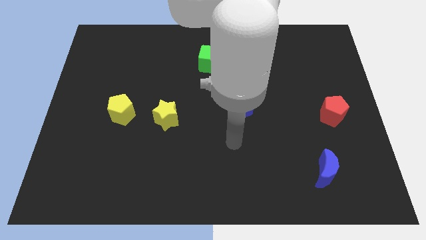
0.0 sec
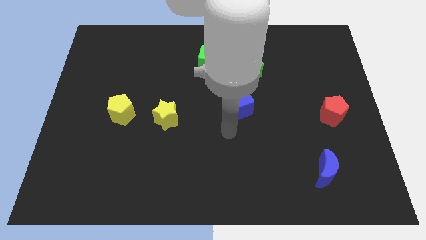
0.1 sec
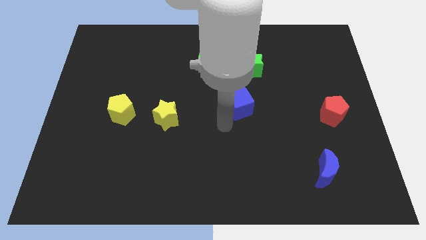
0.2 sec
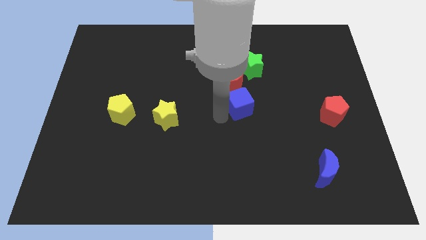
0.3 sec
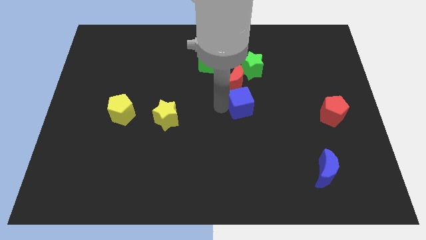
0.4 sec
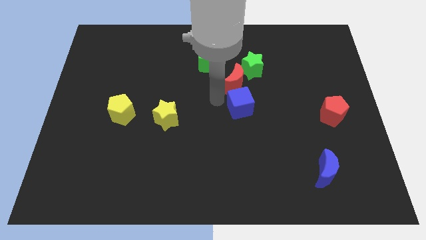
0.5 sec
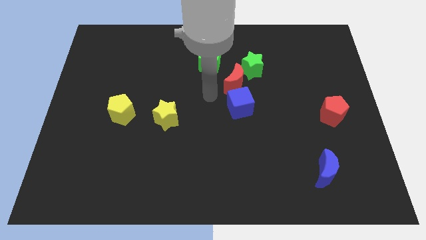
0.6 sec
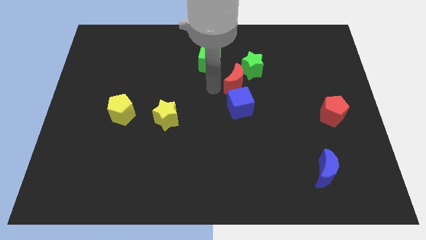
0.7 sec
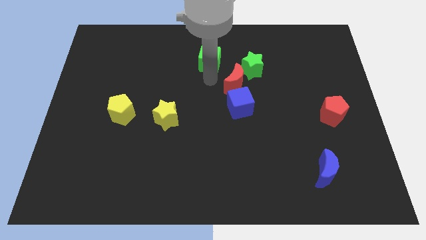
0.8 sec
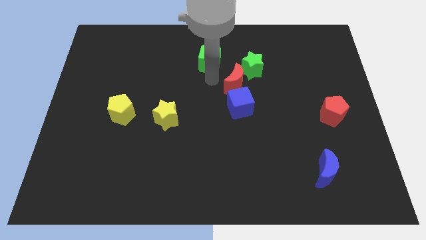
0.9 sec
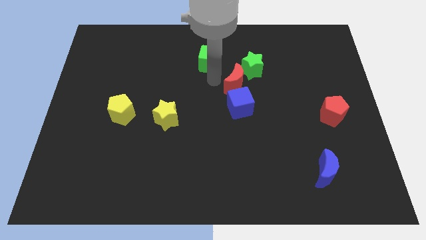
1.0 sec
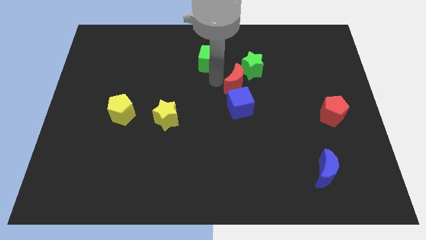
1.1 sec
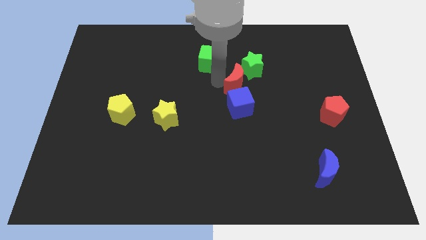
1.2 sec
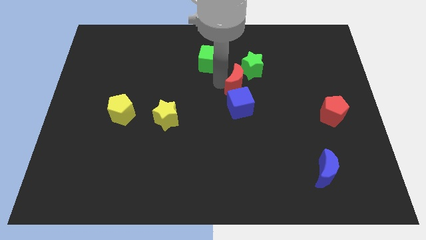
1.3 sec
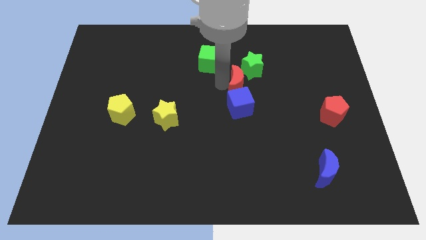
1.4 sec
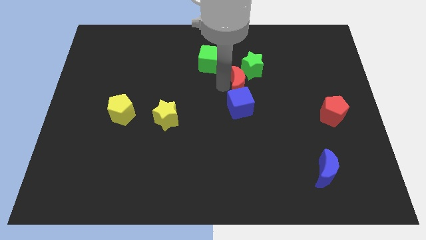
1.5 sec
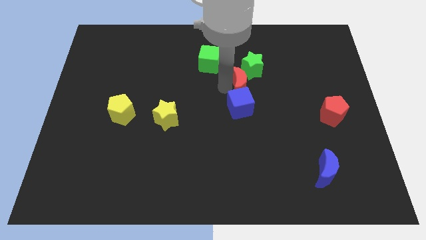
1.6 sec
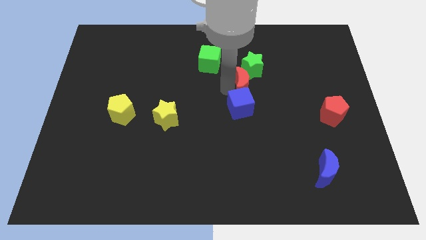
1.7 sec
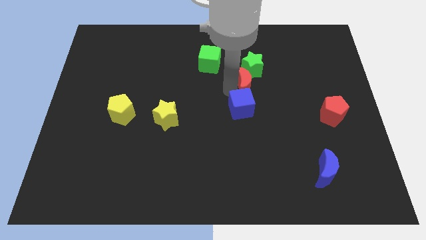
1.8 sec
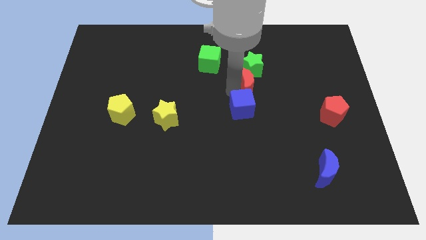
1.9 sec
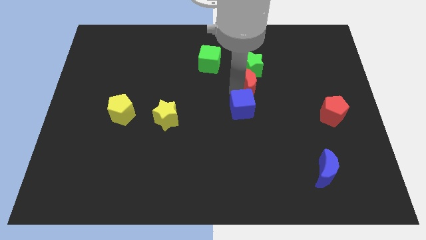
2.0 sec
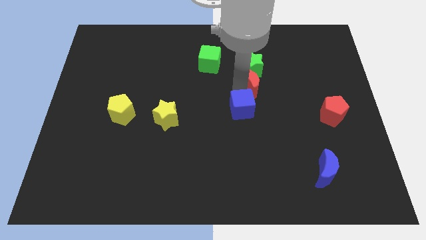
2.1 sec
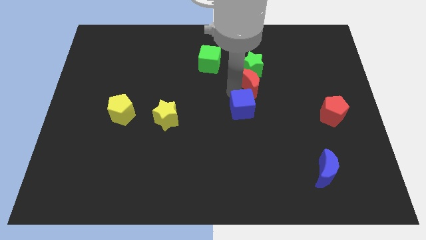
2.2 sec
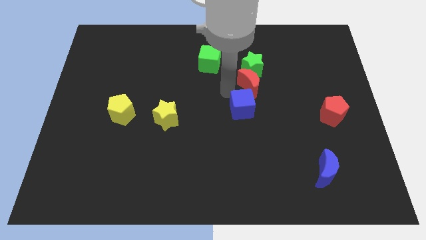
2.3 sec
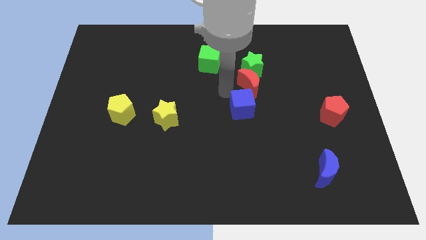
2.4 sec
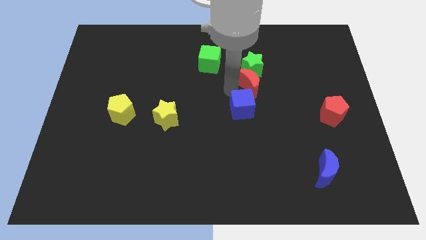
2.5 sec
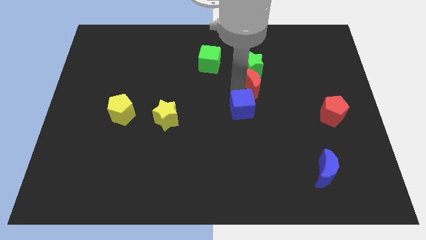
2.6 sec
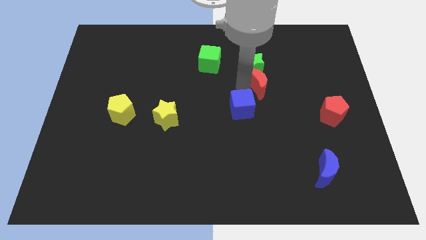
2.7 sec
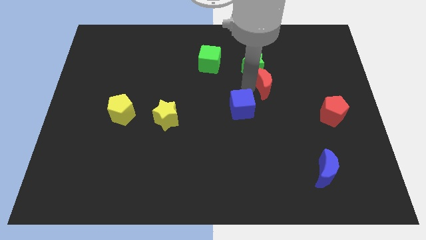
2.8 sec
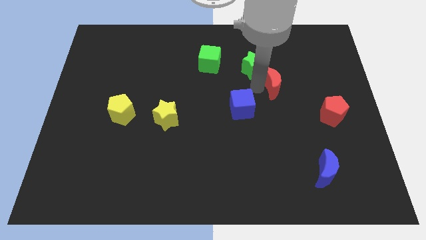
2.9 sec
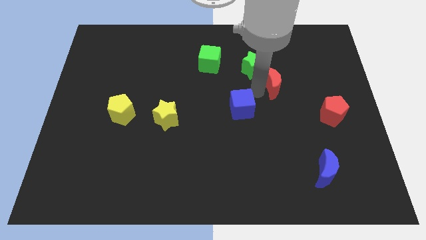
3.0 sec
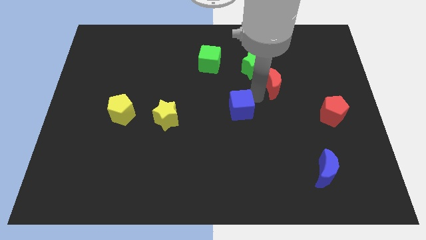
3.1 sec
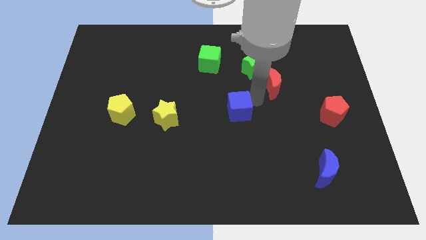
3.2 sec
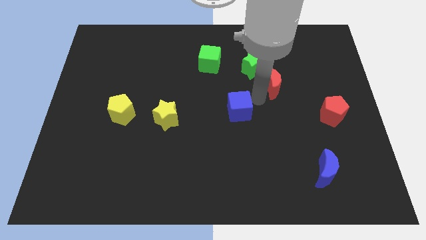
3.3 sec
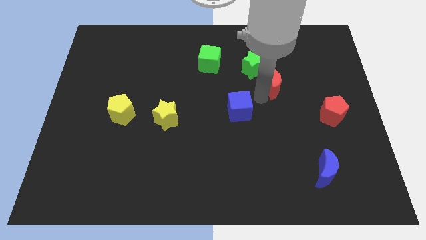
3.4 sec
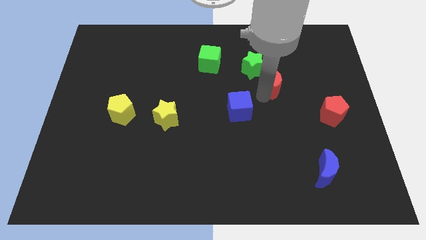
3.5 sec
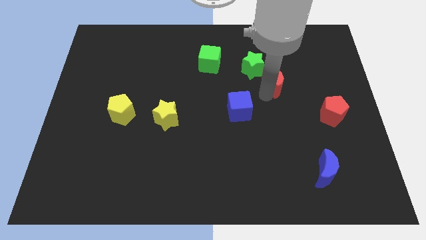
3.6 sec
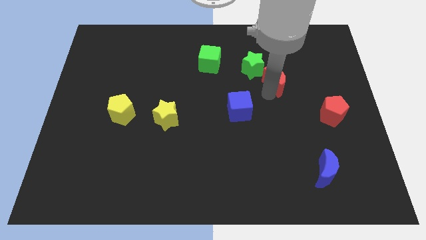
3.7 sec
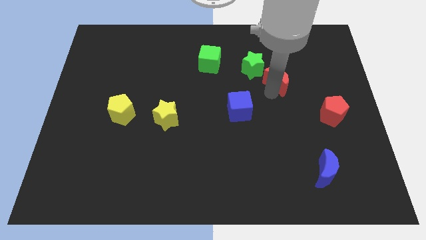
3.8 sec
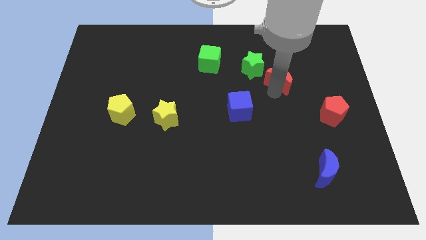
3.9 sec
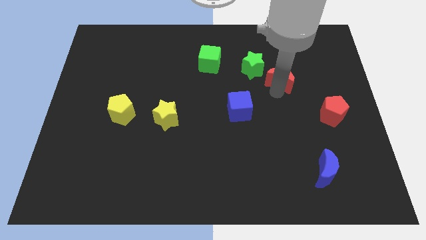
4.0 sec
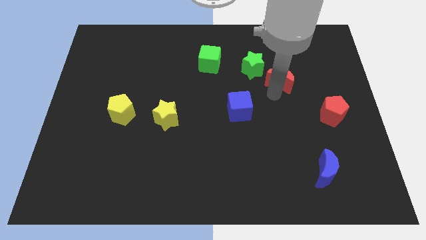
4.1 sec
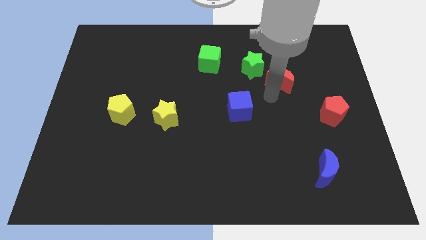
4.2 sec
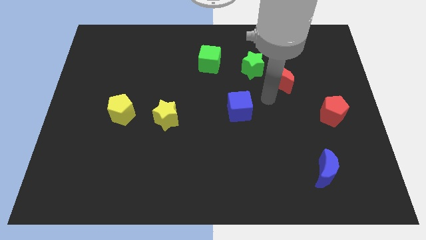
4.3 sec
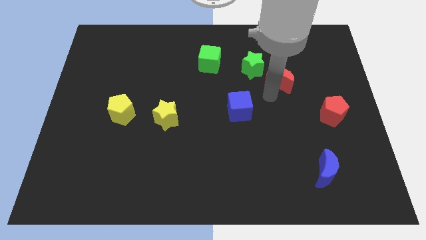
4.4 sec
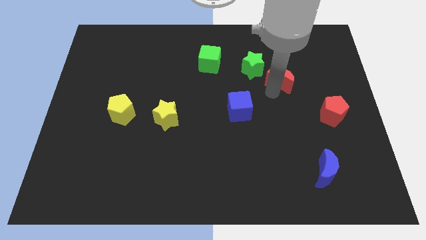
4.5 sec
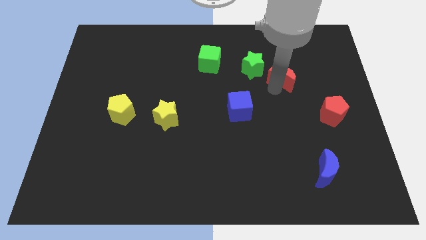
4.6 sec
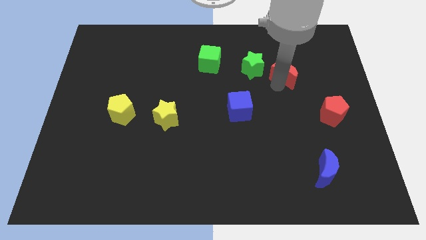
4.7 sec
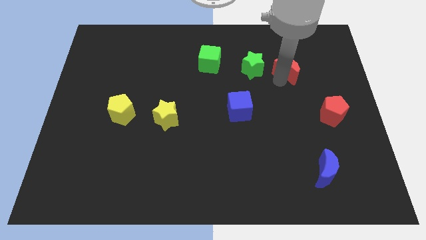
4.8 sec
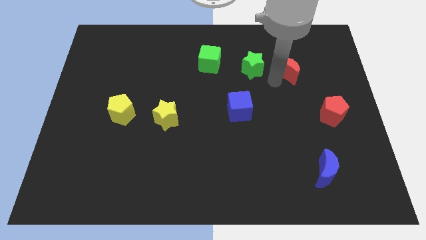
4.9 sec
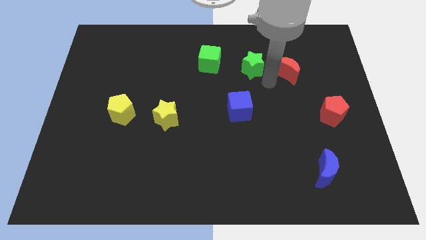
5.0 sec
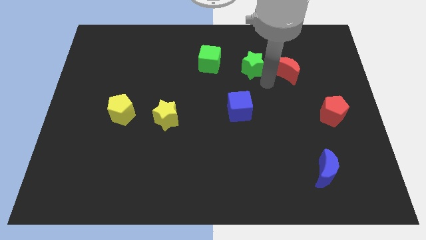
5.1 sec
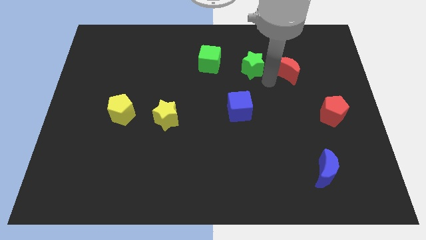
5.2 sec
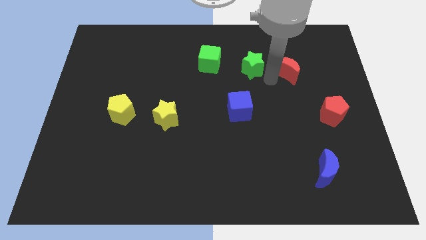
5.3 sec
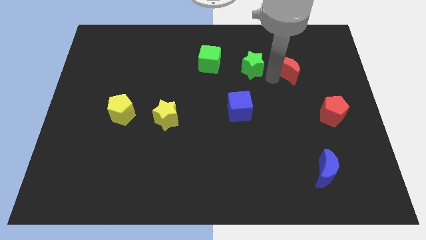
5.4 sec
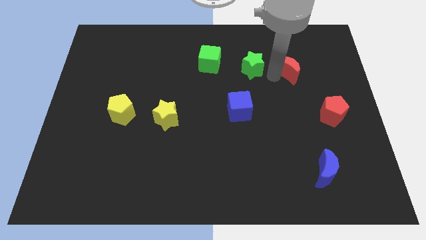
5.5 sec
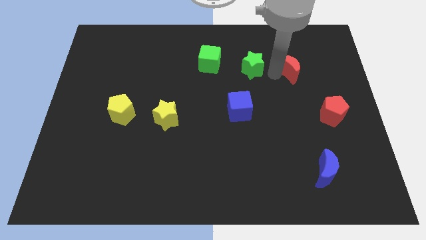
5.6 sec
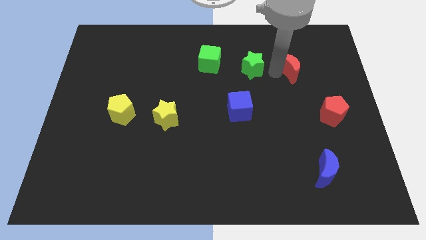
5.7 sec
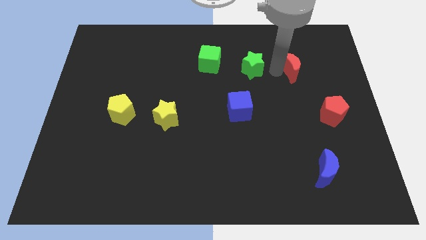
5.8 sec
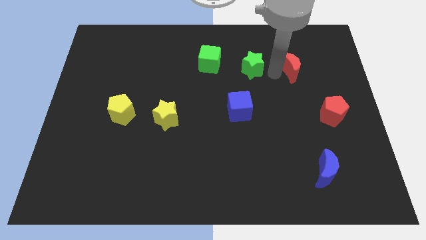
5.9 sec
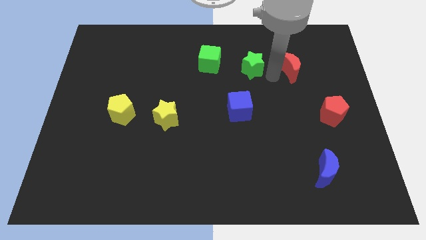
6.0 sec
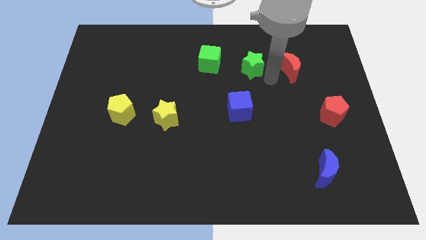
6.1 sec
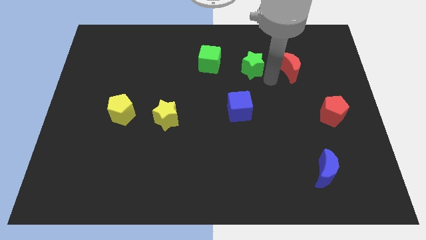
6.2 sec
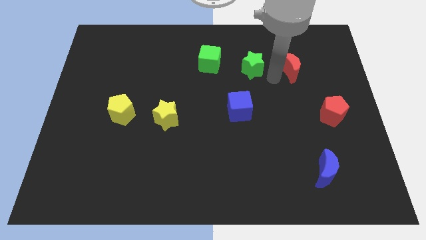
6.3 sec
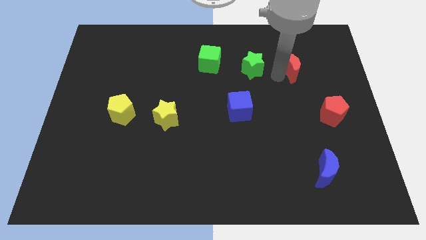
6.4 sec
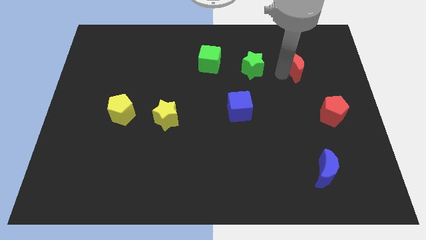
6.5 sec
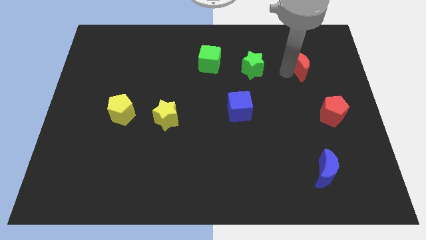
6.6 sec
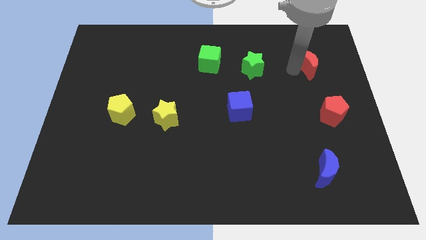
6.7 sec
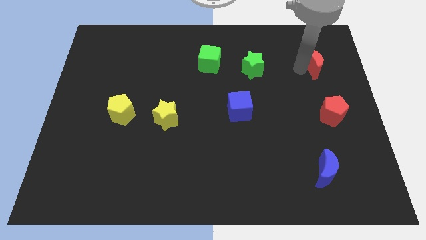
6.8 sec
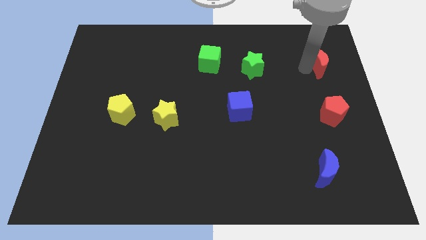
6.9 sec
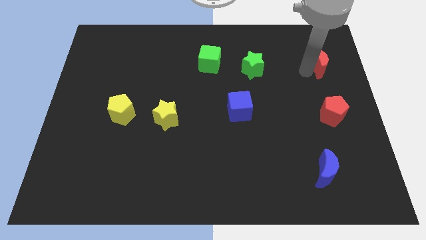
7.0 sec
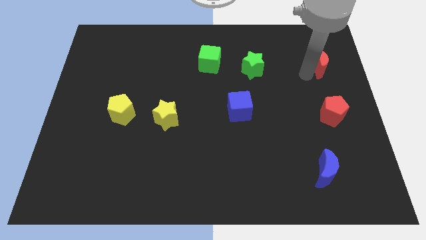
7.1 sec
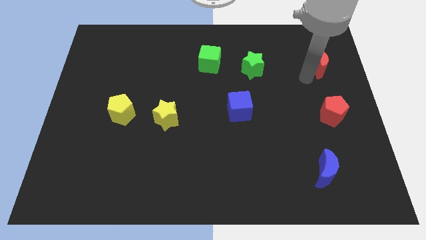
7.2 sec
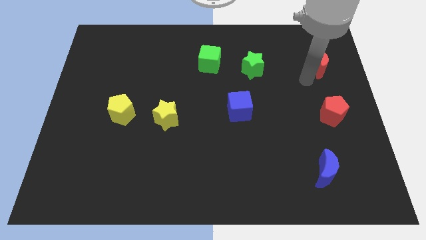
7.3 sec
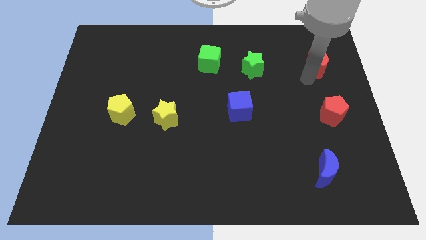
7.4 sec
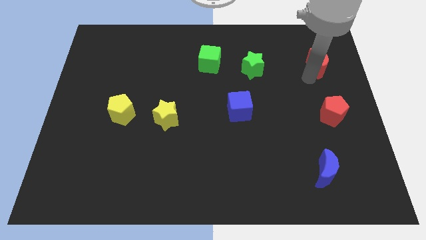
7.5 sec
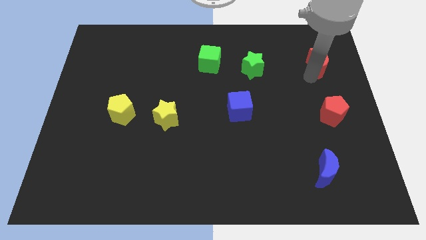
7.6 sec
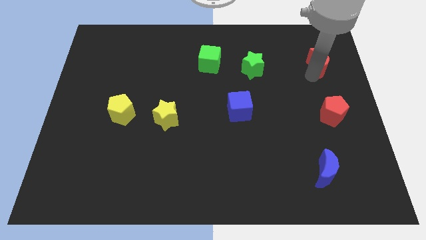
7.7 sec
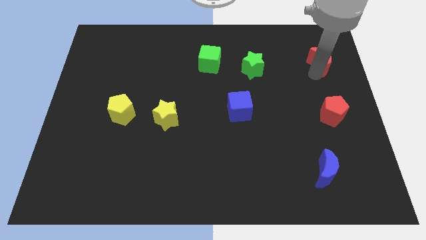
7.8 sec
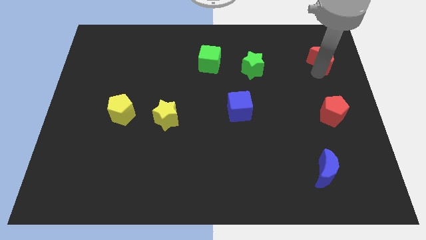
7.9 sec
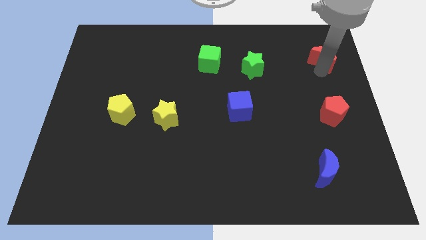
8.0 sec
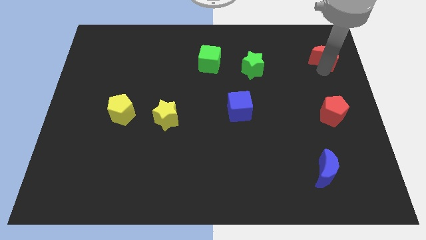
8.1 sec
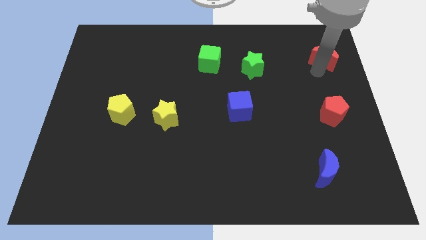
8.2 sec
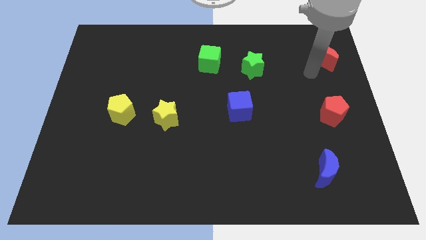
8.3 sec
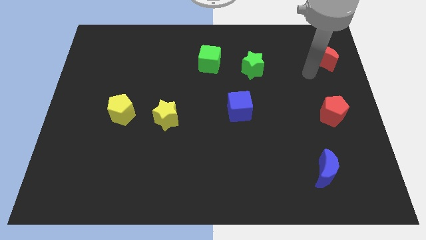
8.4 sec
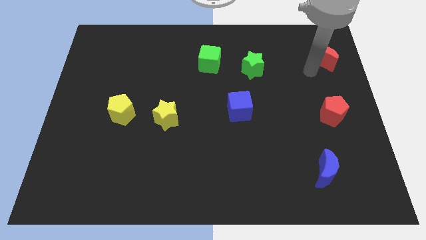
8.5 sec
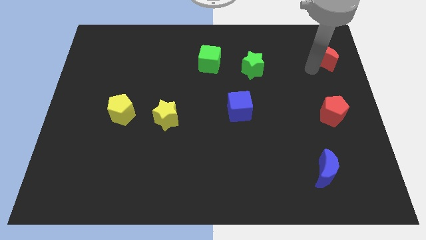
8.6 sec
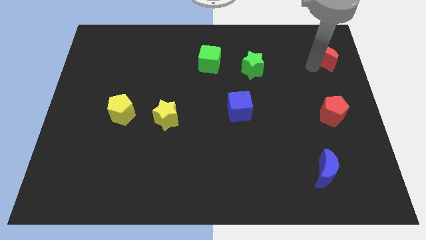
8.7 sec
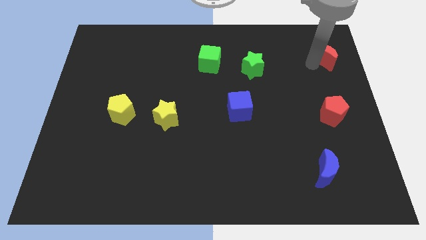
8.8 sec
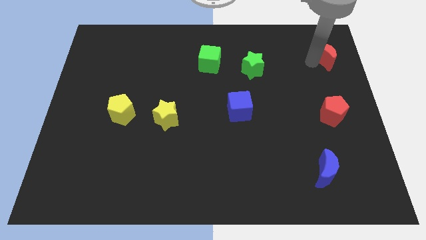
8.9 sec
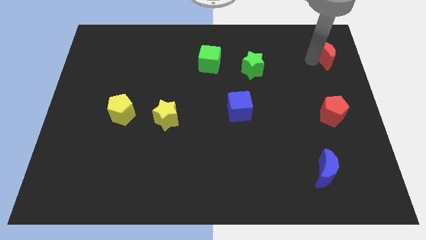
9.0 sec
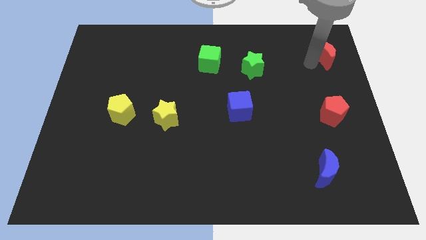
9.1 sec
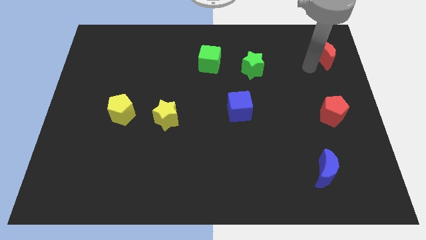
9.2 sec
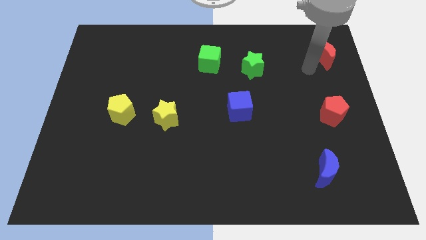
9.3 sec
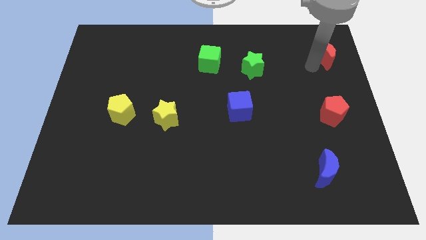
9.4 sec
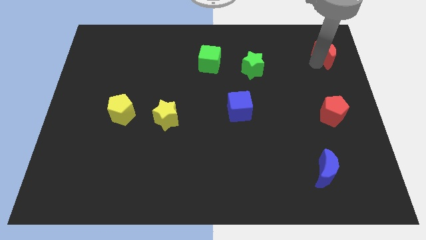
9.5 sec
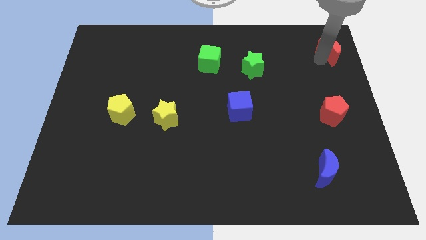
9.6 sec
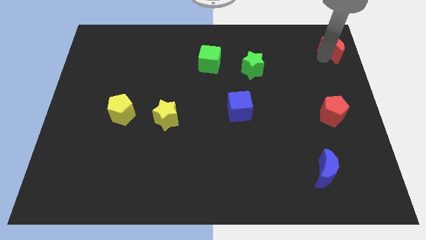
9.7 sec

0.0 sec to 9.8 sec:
move the red moon to the top right corner
